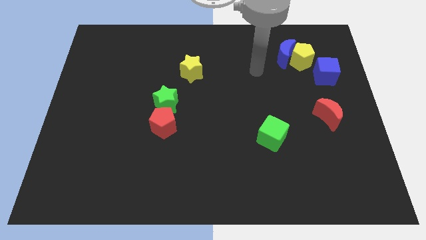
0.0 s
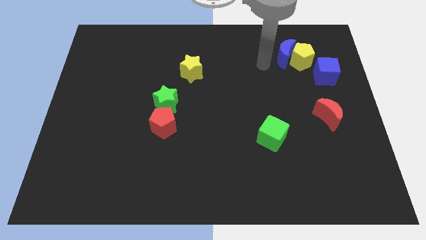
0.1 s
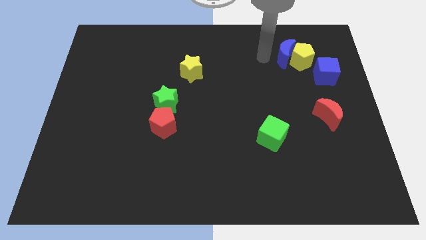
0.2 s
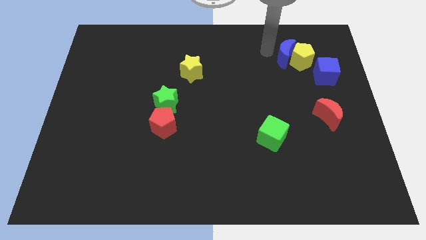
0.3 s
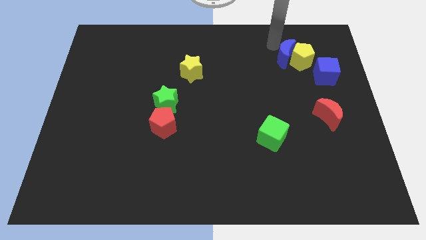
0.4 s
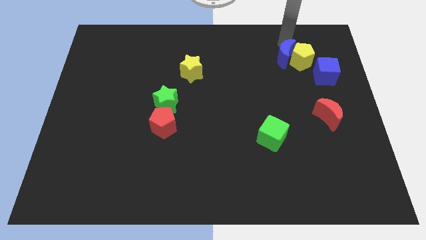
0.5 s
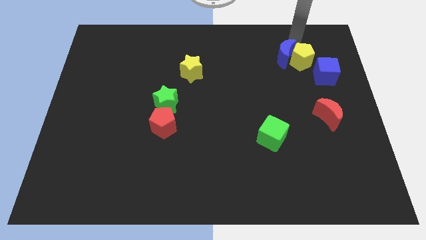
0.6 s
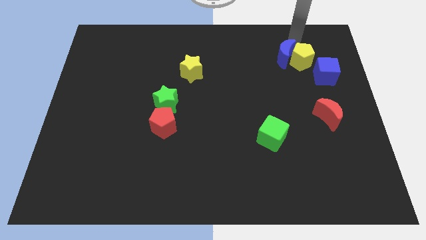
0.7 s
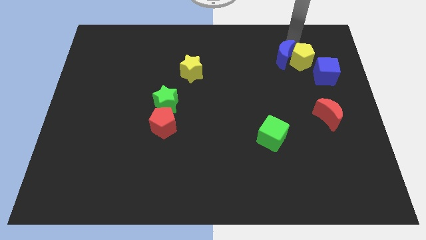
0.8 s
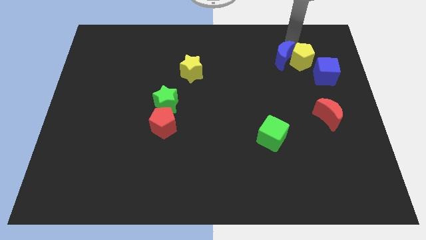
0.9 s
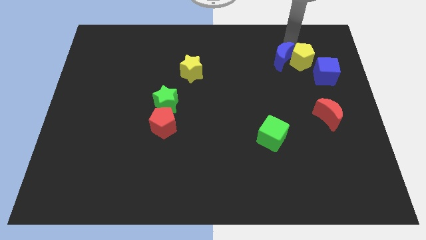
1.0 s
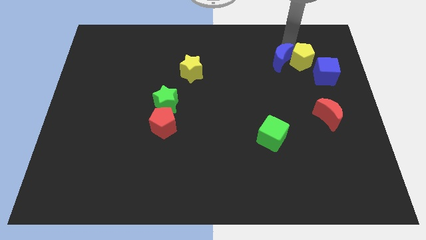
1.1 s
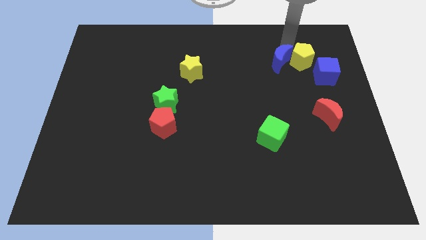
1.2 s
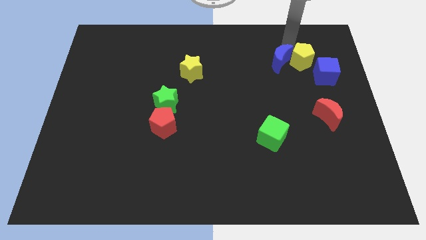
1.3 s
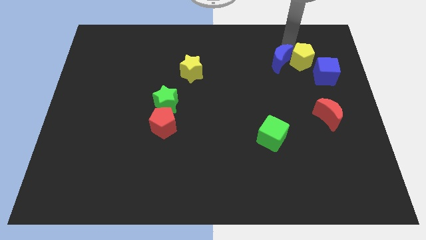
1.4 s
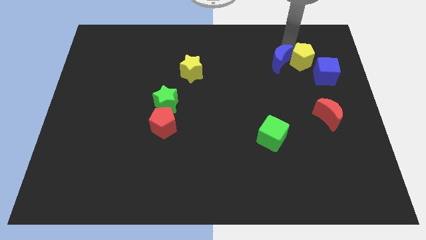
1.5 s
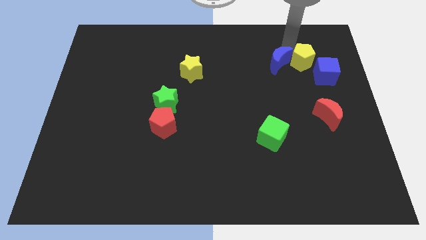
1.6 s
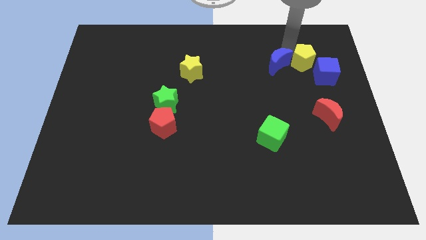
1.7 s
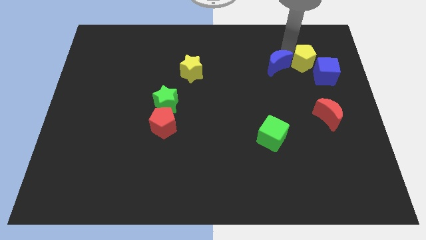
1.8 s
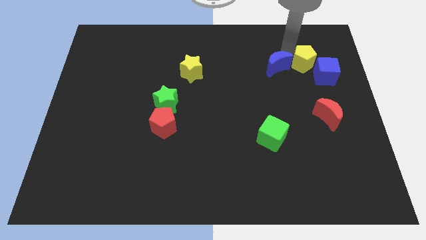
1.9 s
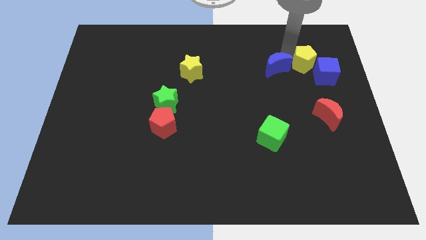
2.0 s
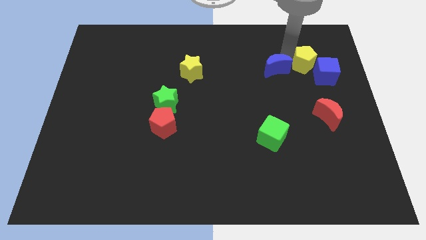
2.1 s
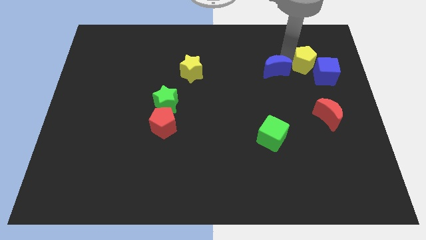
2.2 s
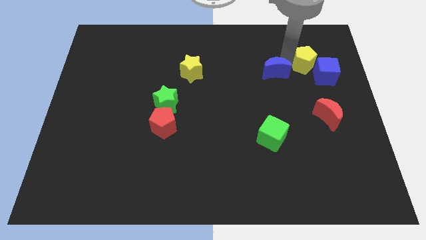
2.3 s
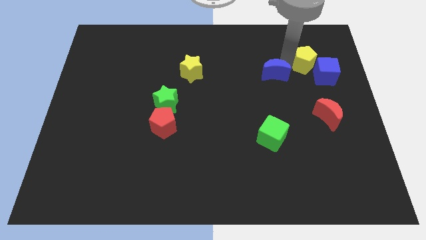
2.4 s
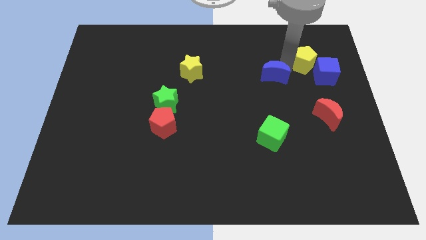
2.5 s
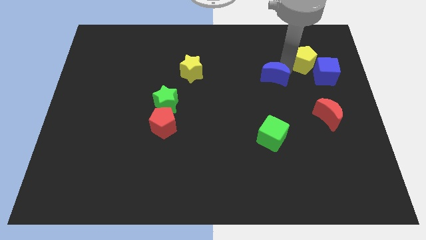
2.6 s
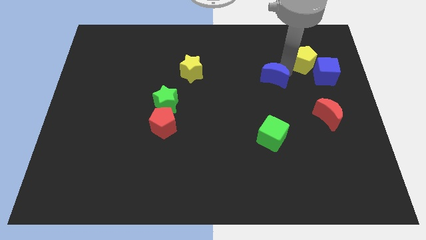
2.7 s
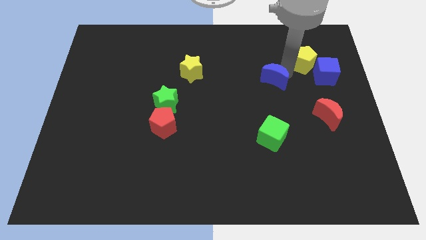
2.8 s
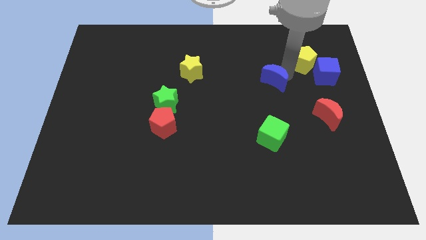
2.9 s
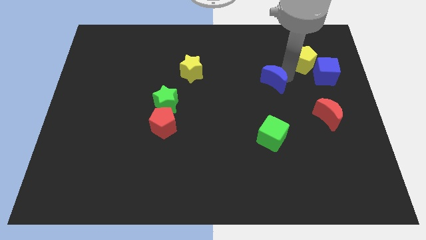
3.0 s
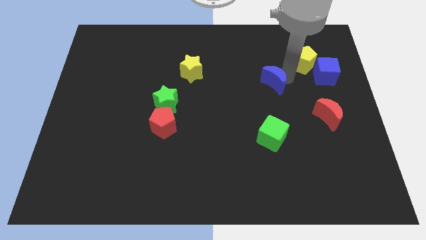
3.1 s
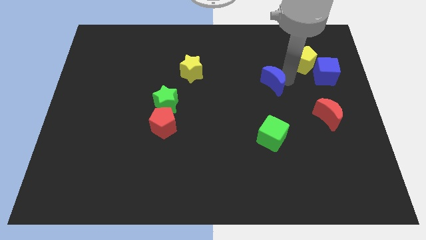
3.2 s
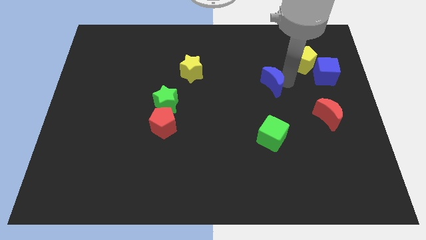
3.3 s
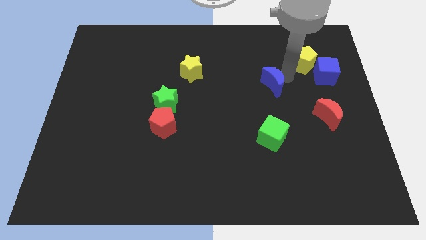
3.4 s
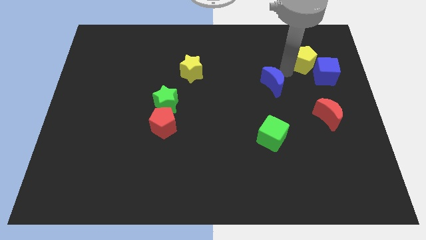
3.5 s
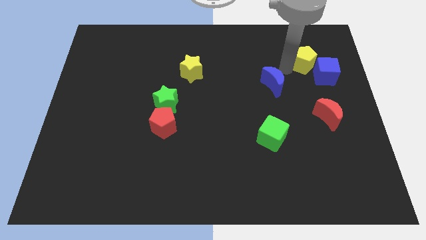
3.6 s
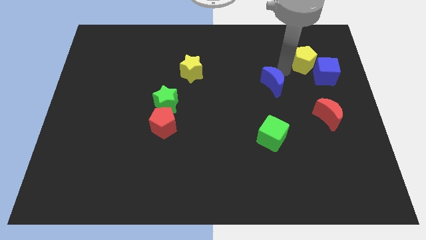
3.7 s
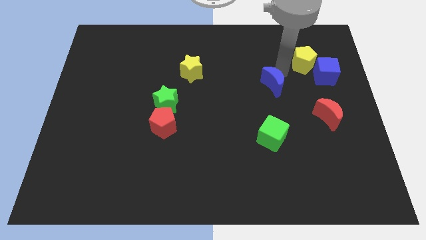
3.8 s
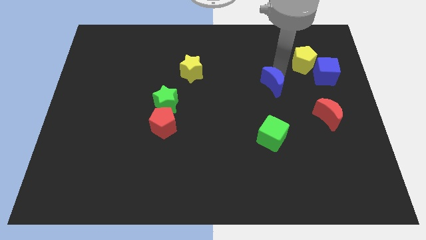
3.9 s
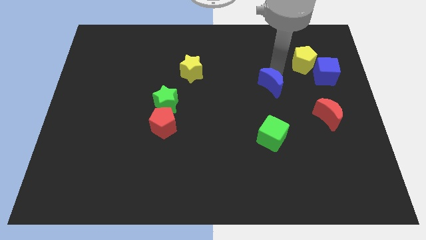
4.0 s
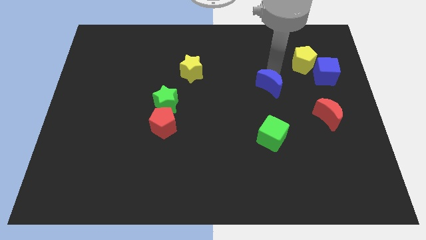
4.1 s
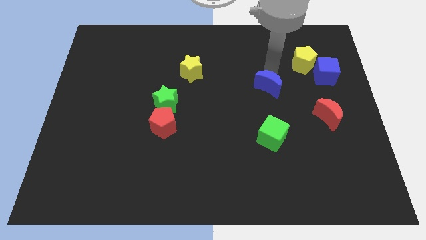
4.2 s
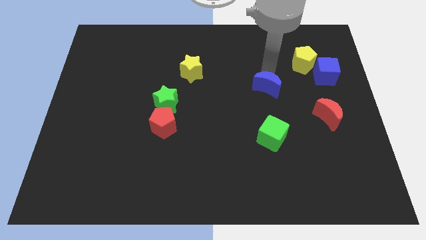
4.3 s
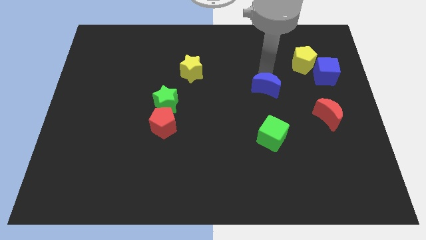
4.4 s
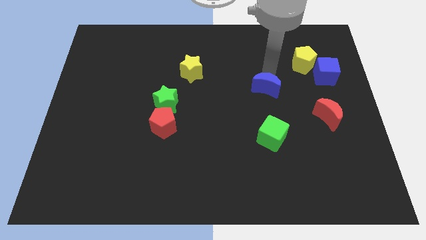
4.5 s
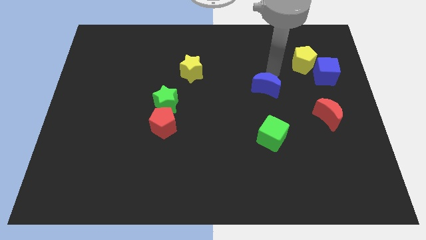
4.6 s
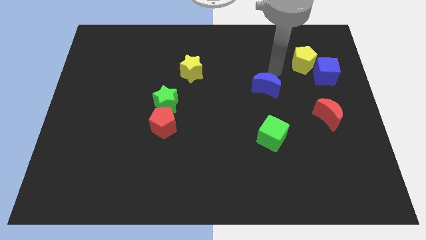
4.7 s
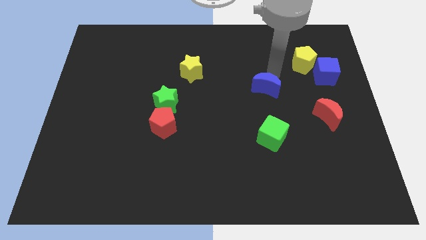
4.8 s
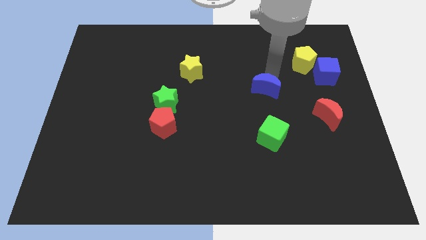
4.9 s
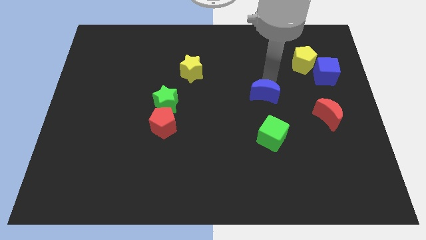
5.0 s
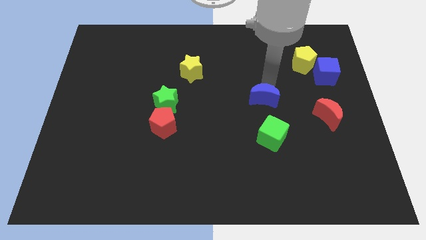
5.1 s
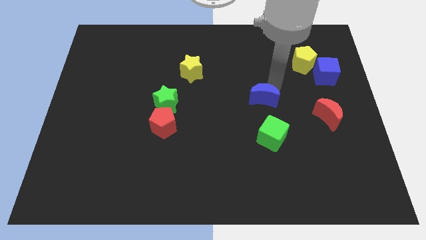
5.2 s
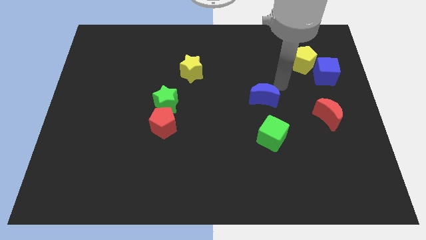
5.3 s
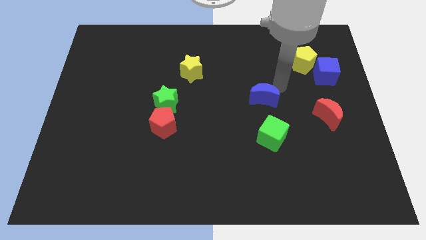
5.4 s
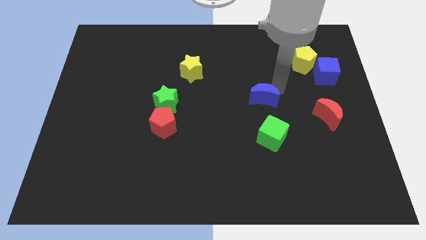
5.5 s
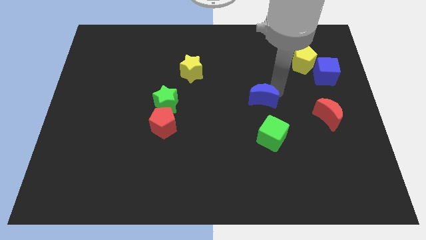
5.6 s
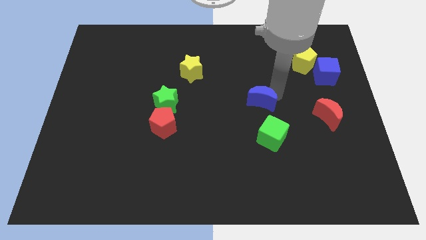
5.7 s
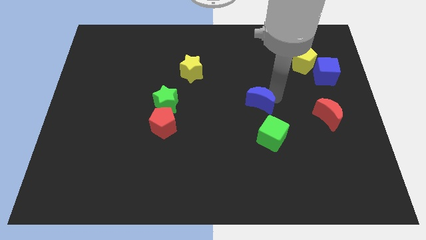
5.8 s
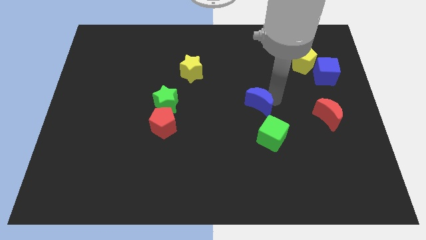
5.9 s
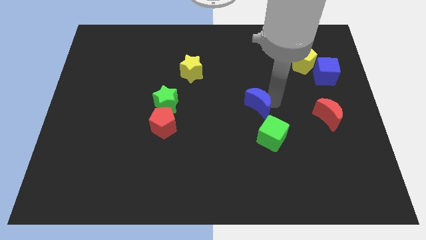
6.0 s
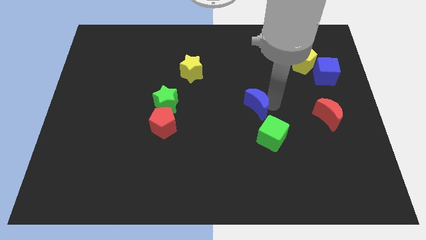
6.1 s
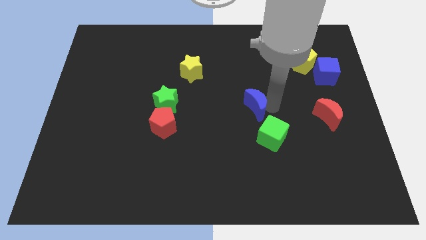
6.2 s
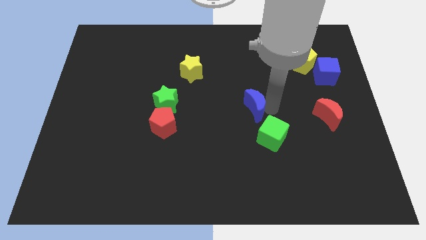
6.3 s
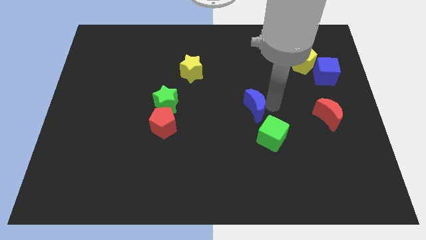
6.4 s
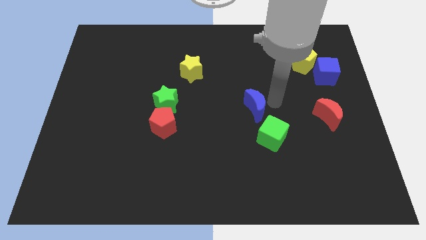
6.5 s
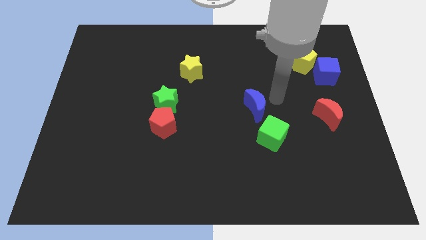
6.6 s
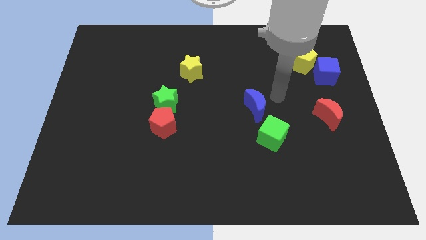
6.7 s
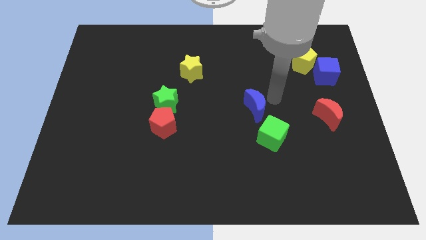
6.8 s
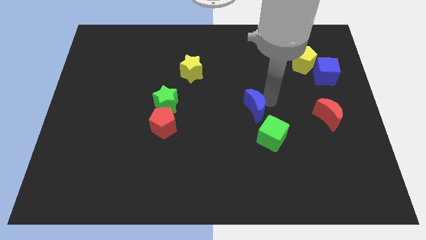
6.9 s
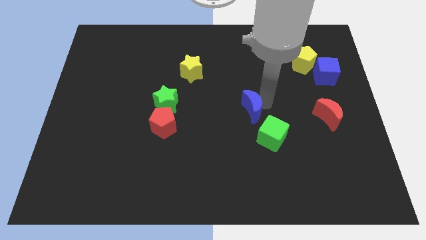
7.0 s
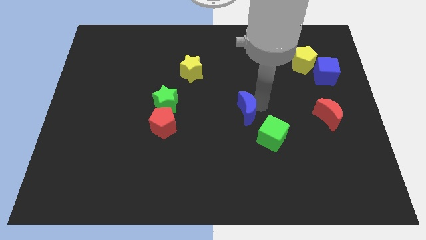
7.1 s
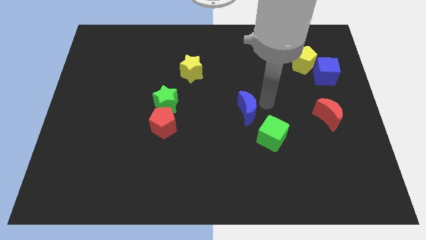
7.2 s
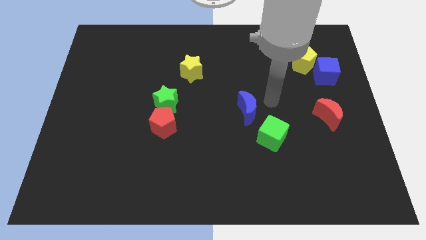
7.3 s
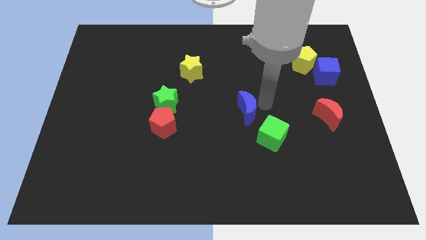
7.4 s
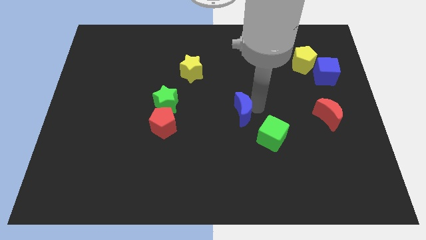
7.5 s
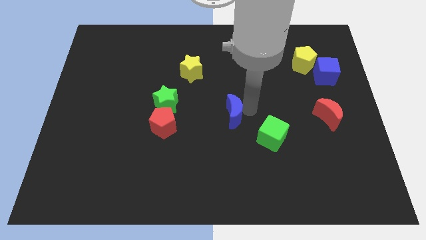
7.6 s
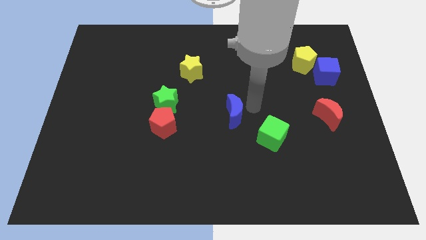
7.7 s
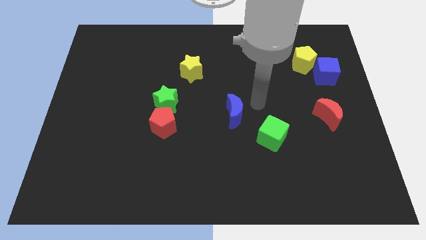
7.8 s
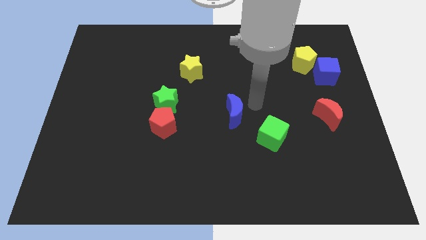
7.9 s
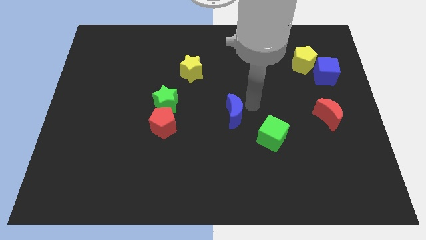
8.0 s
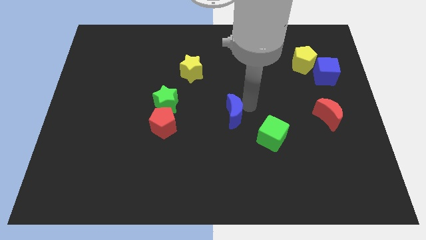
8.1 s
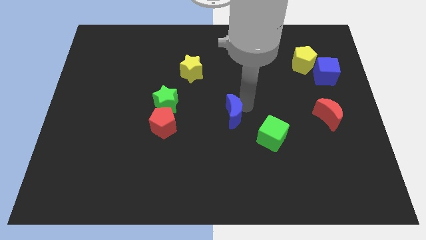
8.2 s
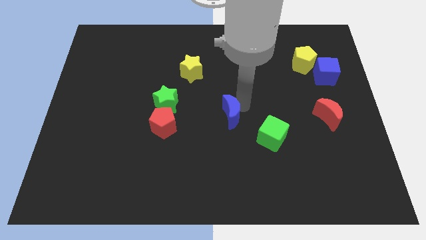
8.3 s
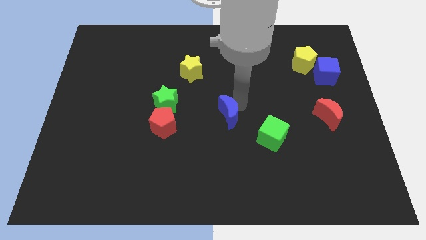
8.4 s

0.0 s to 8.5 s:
slide the blue moon to the right side of the red pentagon
